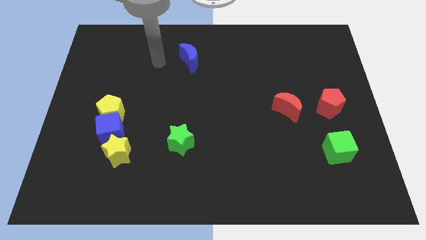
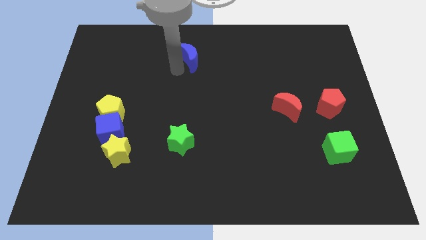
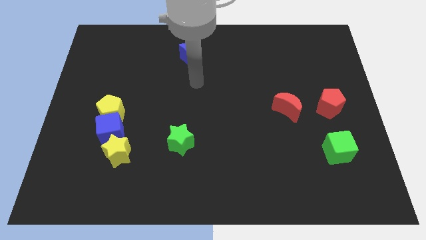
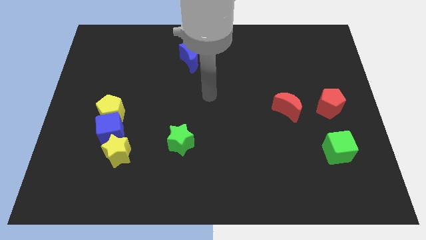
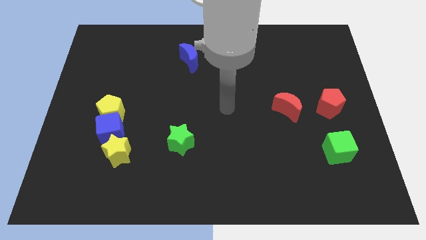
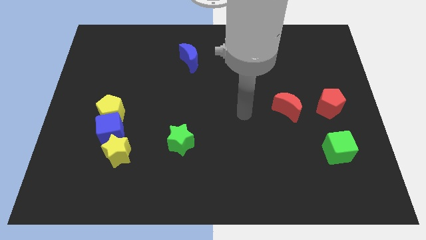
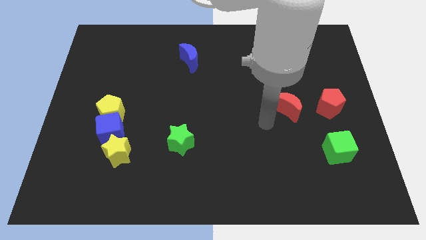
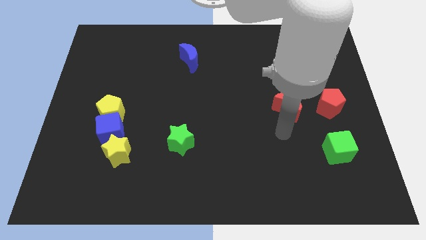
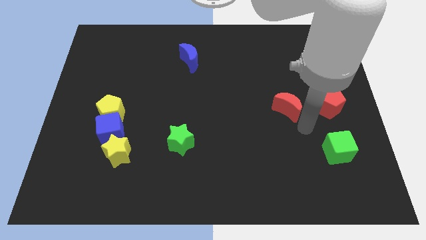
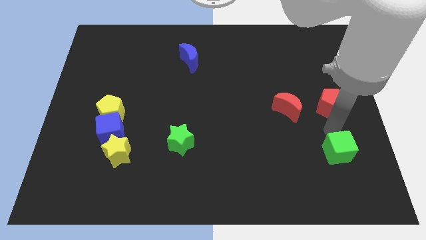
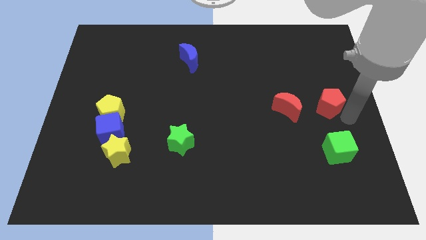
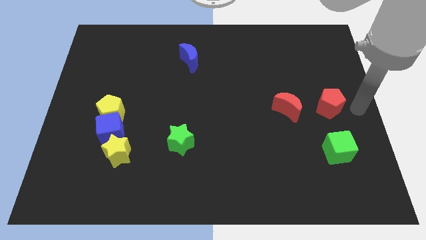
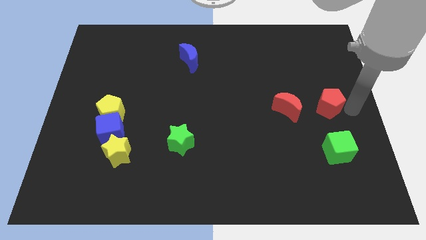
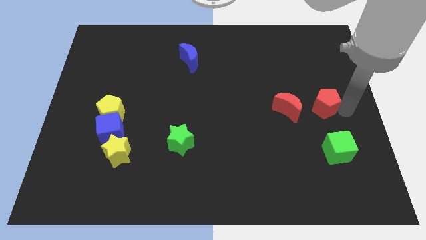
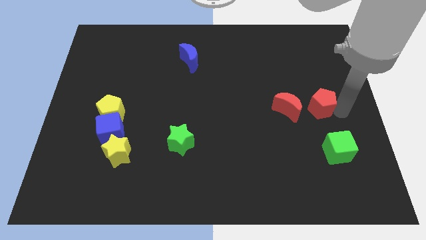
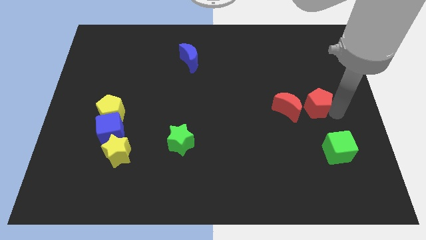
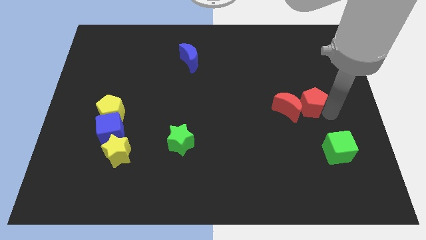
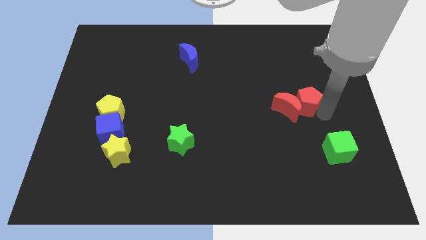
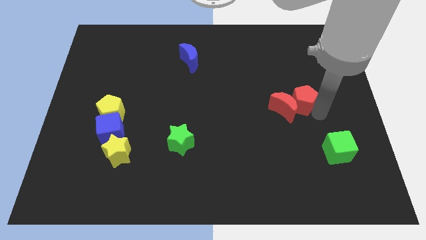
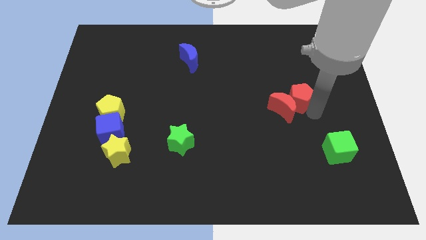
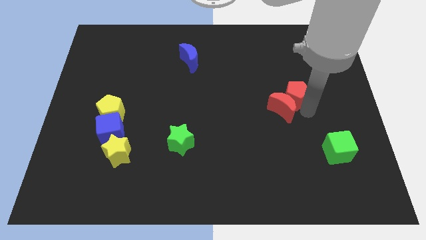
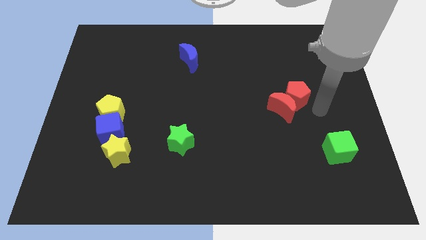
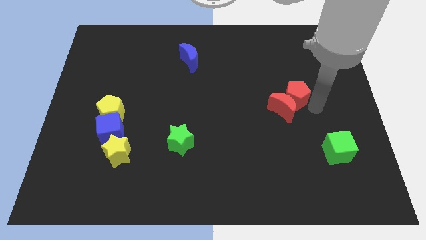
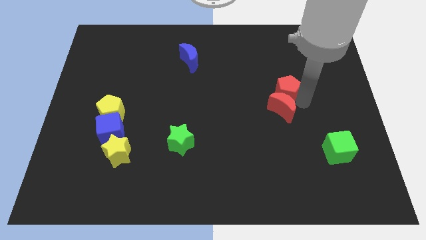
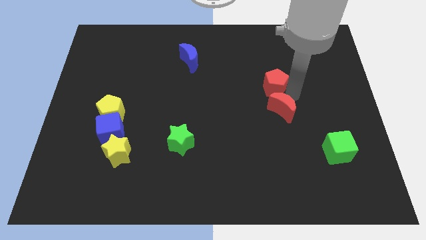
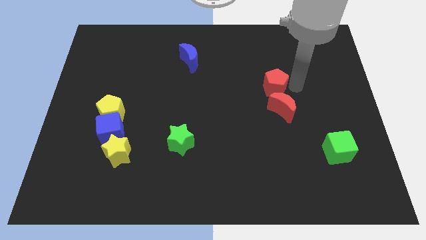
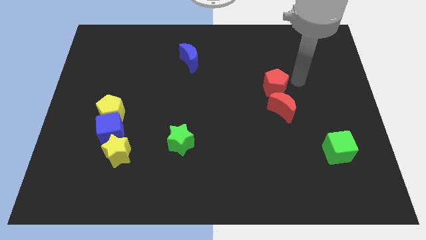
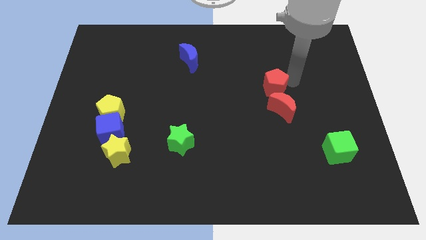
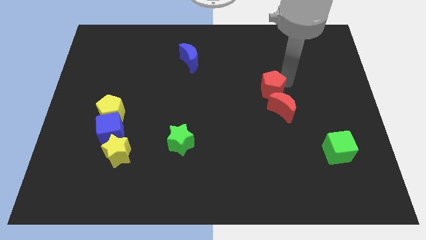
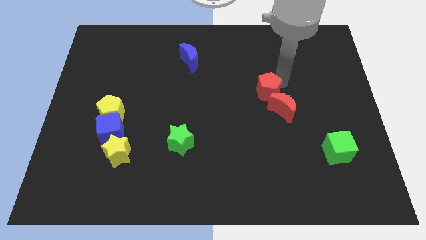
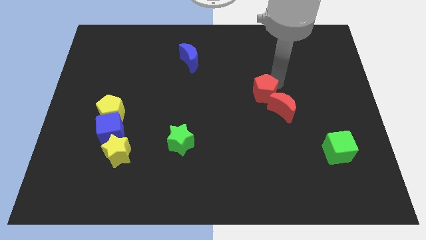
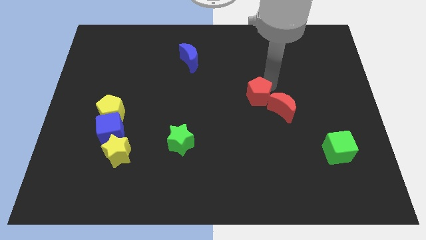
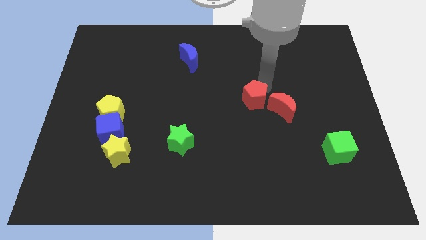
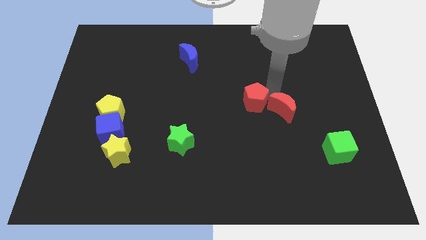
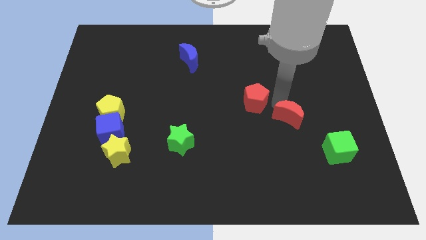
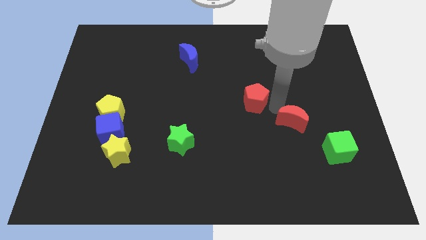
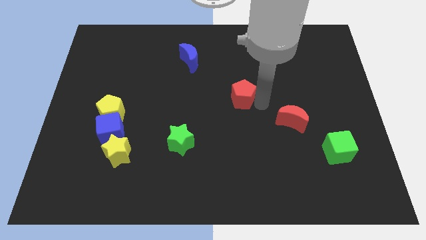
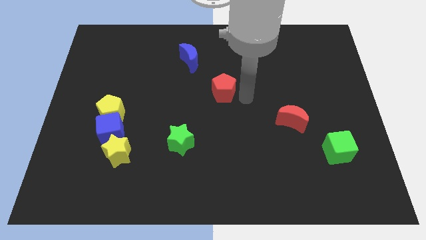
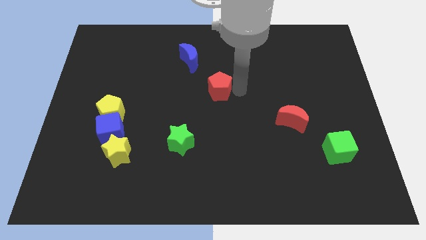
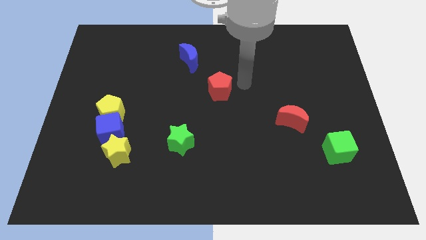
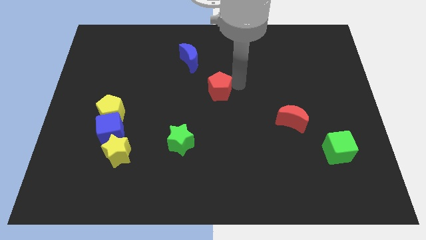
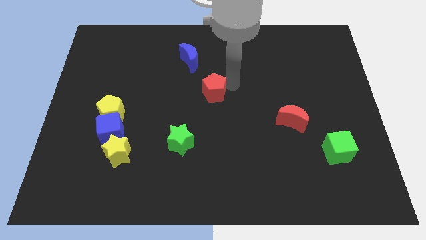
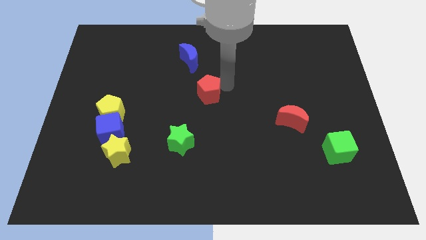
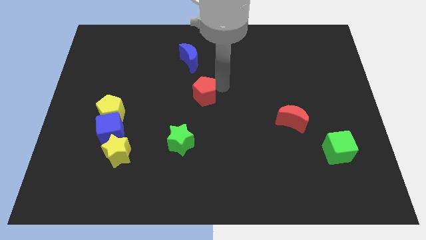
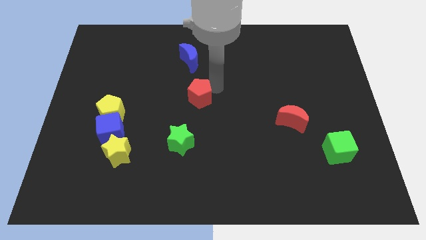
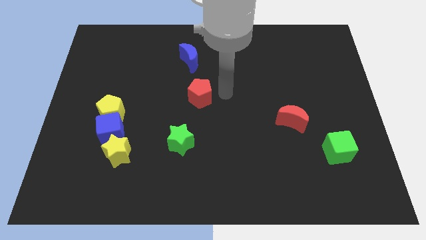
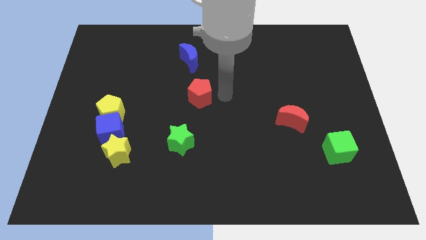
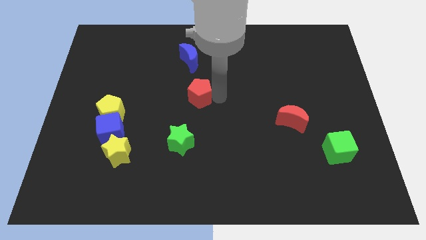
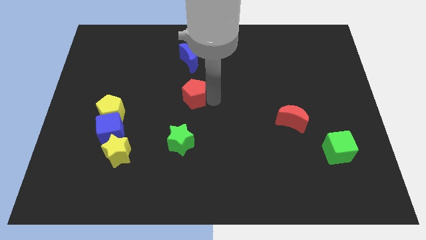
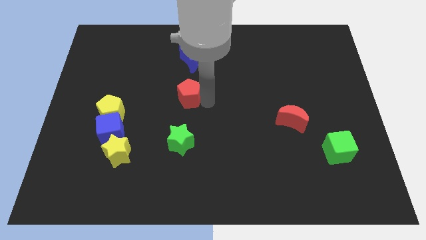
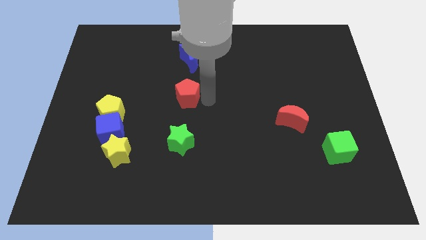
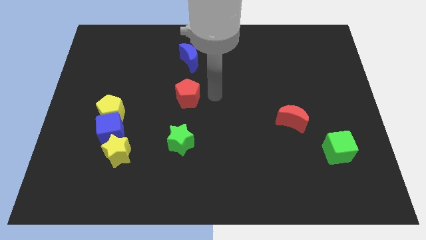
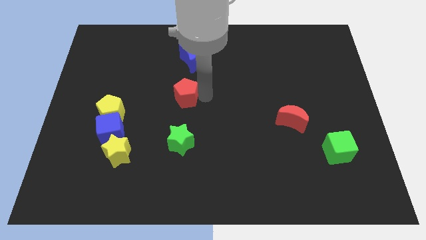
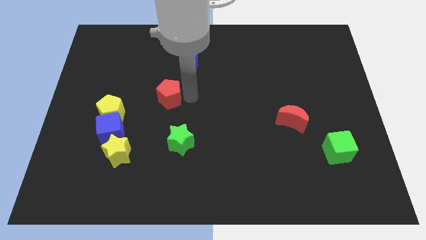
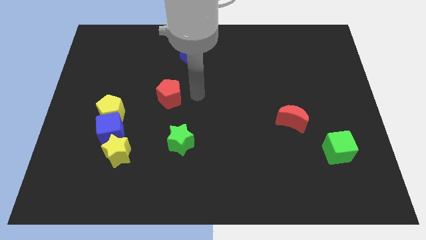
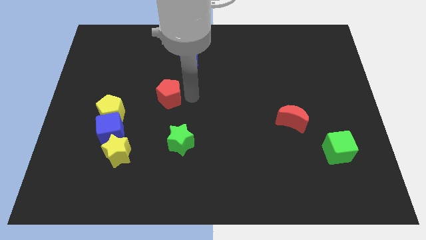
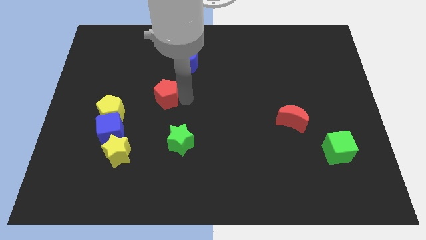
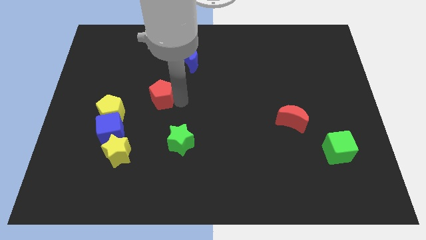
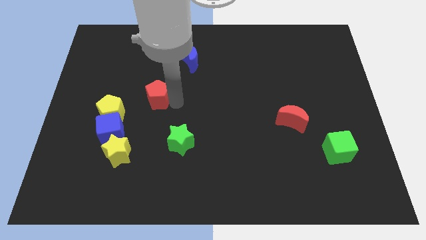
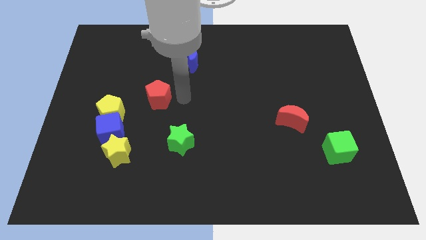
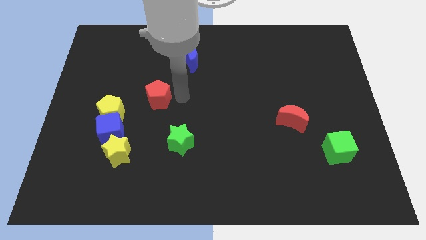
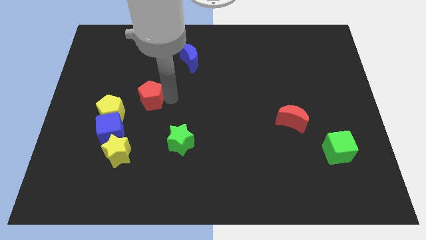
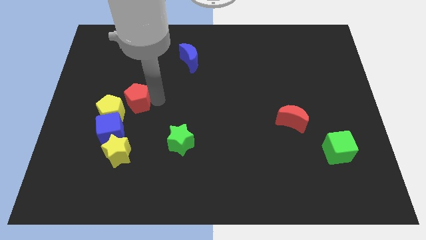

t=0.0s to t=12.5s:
slide the red pentagon to the top of the yellow star
